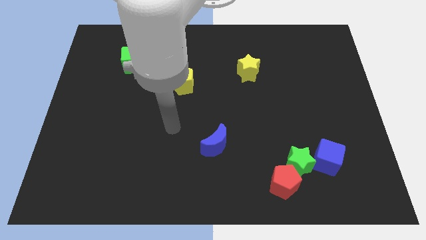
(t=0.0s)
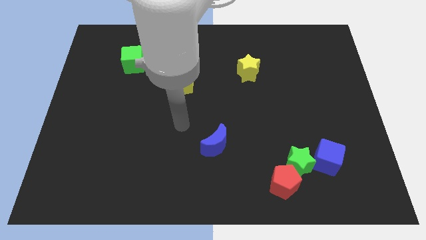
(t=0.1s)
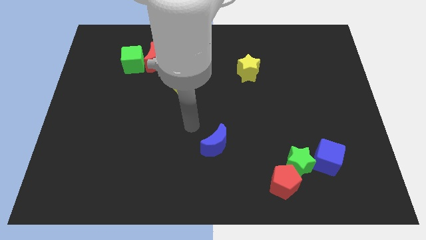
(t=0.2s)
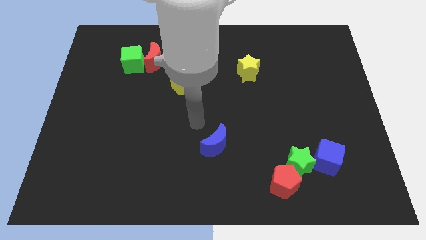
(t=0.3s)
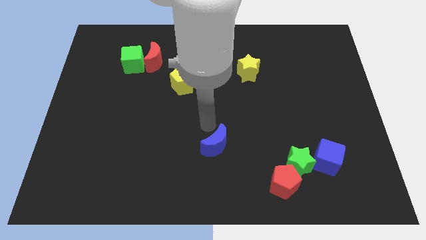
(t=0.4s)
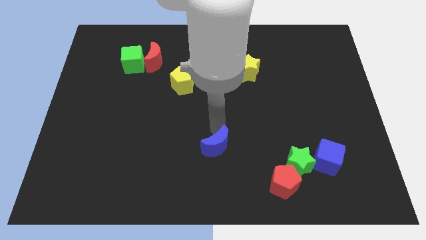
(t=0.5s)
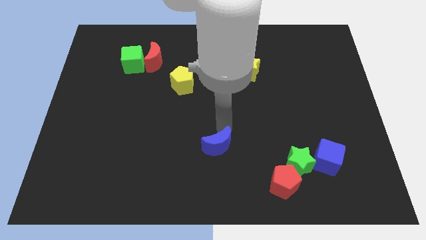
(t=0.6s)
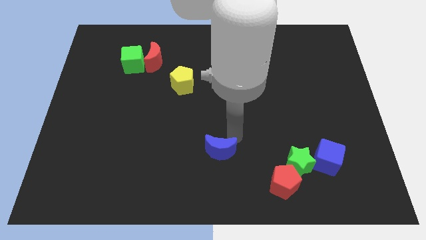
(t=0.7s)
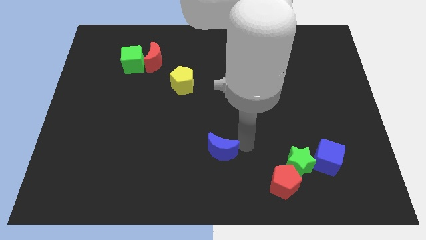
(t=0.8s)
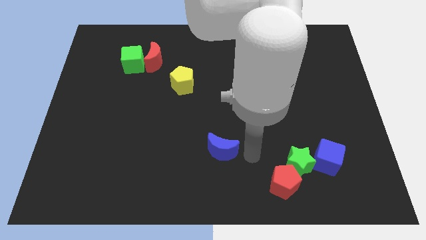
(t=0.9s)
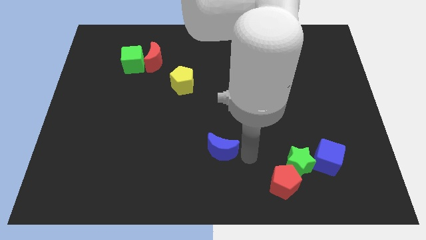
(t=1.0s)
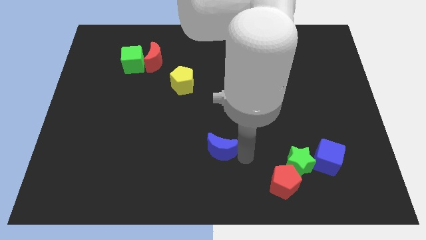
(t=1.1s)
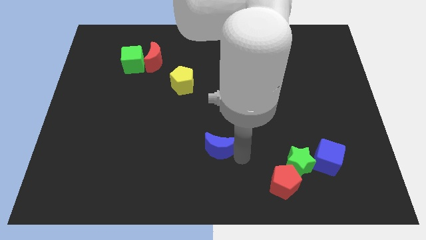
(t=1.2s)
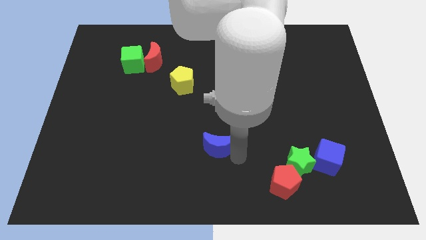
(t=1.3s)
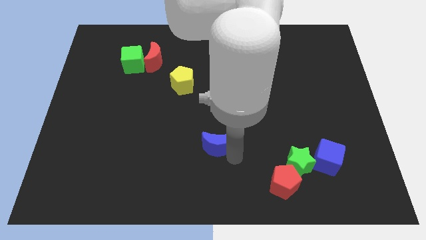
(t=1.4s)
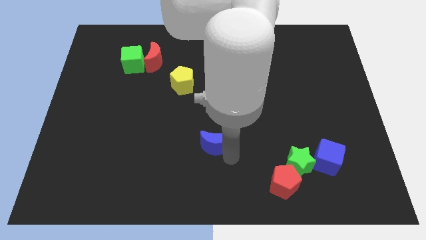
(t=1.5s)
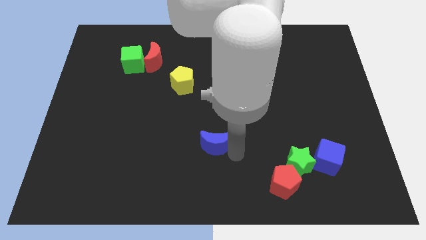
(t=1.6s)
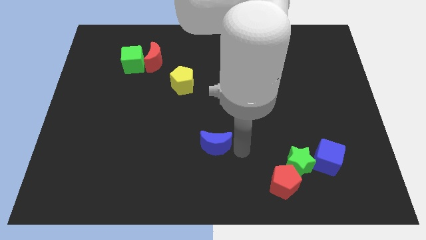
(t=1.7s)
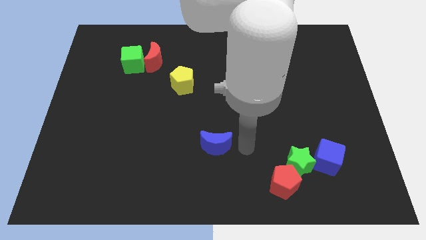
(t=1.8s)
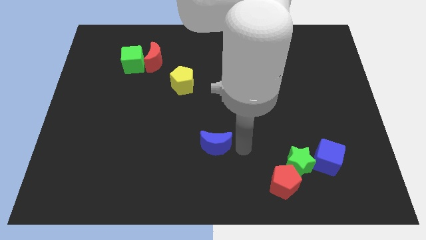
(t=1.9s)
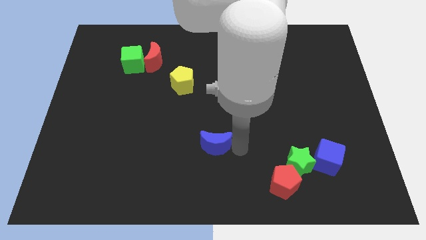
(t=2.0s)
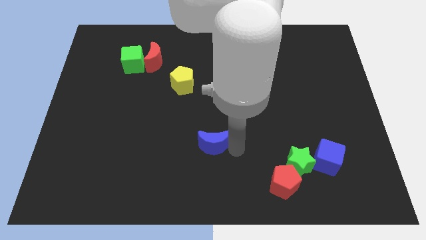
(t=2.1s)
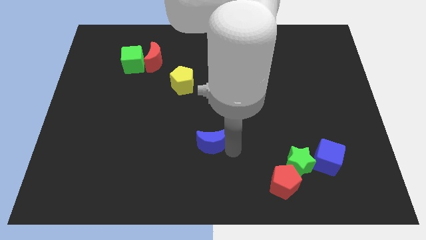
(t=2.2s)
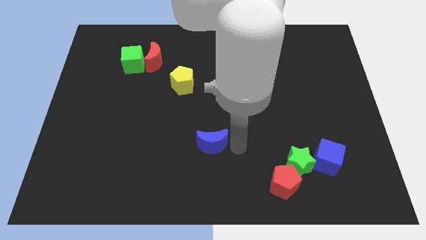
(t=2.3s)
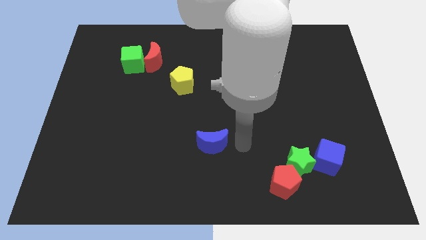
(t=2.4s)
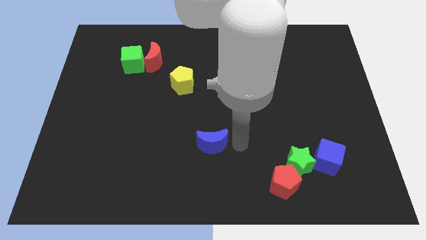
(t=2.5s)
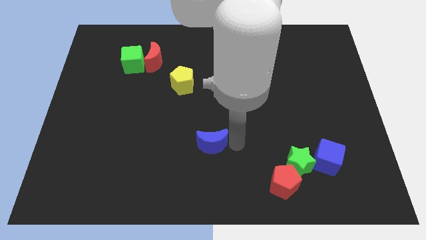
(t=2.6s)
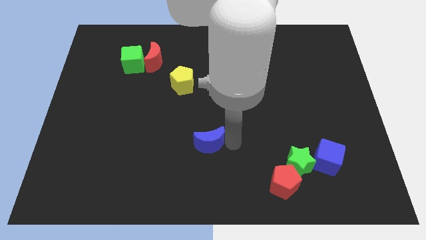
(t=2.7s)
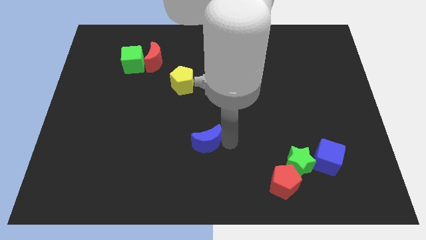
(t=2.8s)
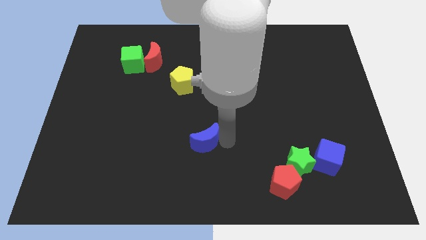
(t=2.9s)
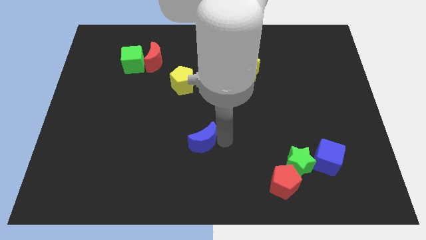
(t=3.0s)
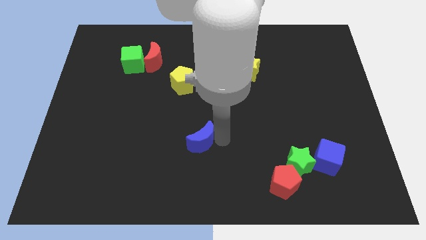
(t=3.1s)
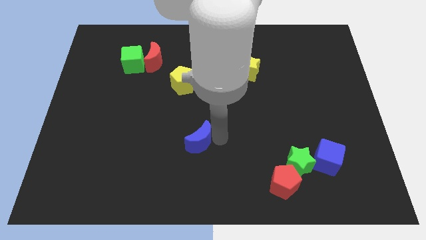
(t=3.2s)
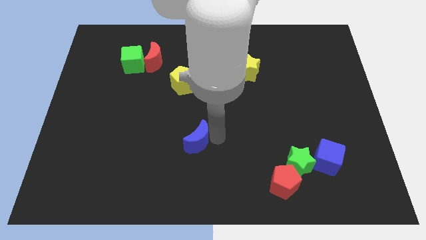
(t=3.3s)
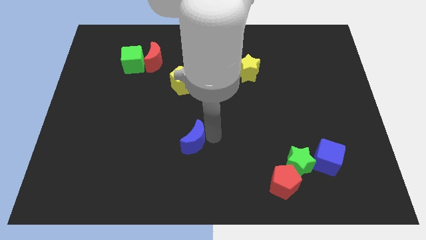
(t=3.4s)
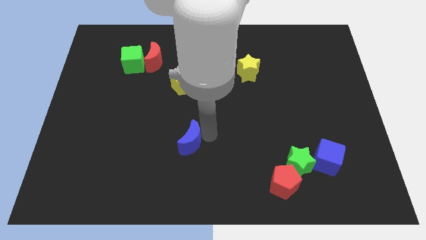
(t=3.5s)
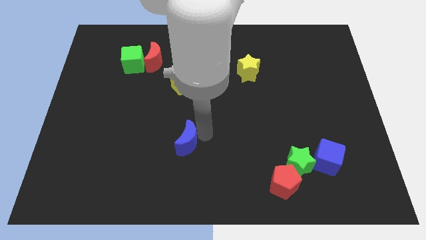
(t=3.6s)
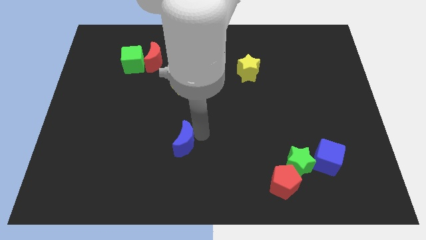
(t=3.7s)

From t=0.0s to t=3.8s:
push the blue moon slightly left

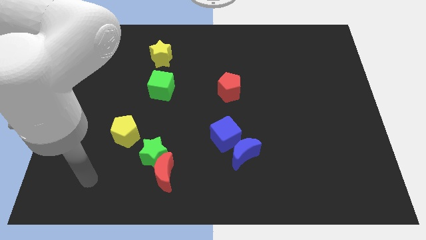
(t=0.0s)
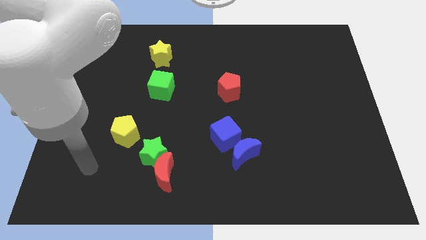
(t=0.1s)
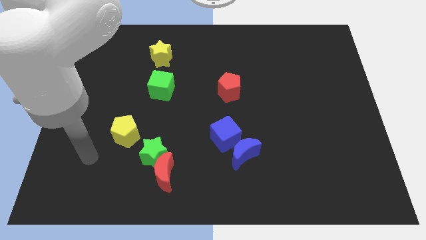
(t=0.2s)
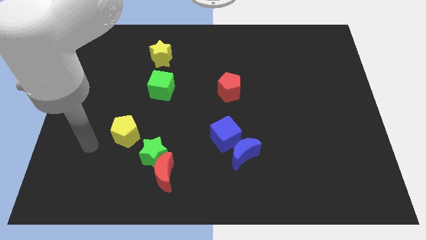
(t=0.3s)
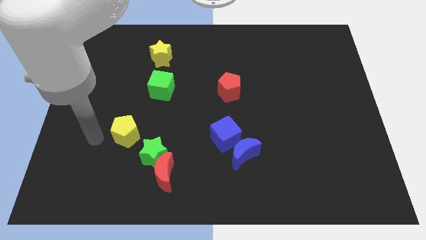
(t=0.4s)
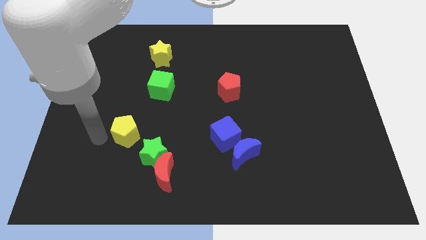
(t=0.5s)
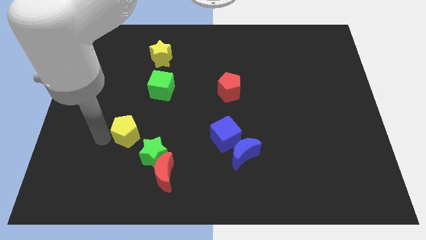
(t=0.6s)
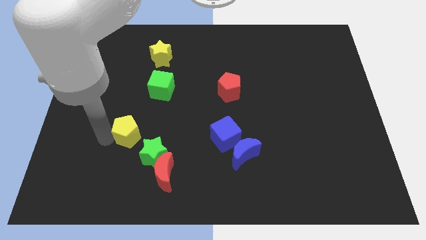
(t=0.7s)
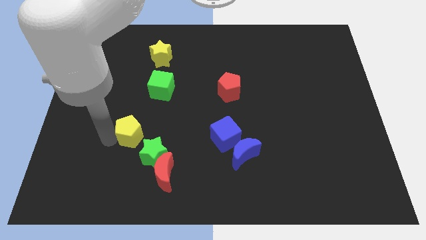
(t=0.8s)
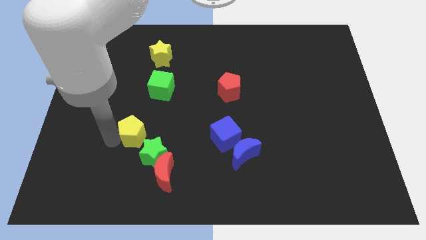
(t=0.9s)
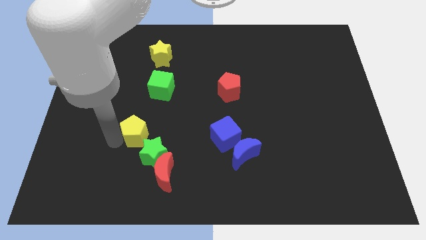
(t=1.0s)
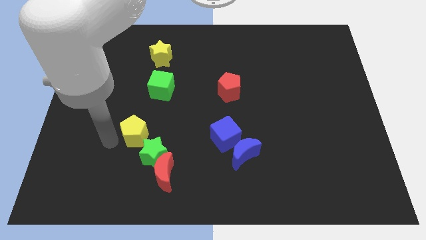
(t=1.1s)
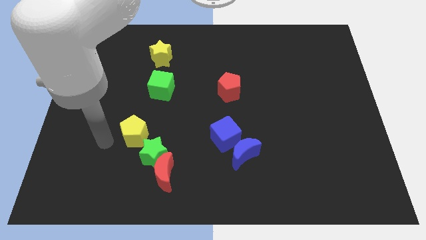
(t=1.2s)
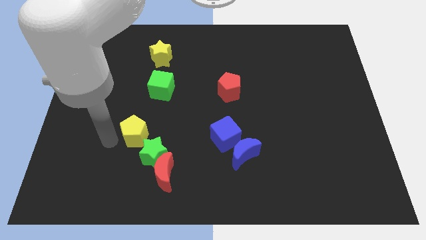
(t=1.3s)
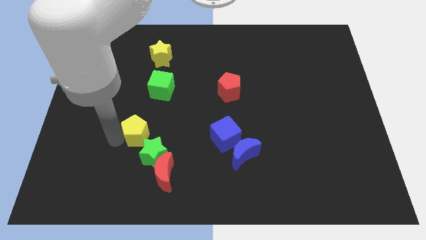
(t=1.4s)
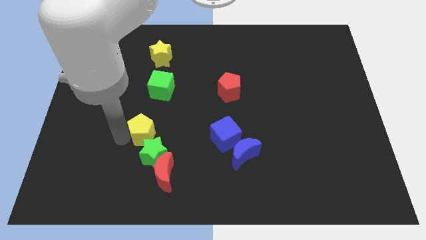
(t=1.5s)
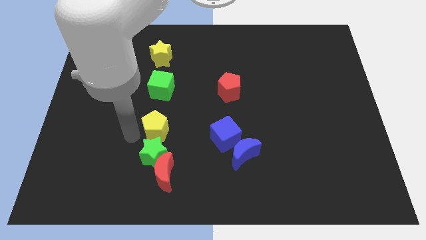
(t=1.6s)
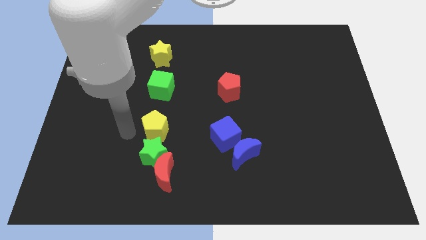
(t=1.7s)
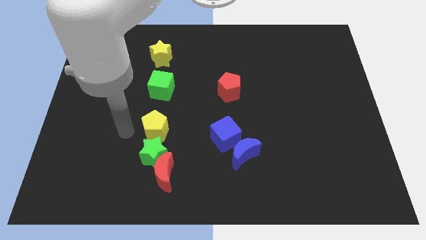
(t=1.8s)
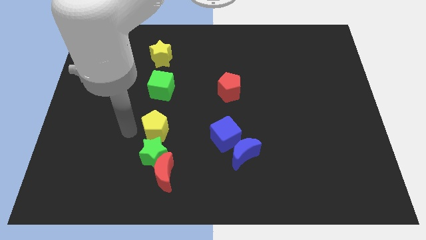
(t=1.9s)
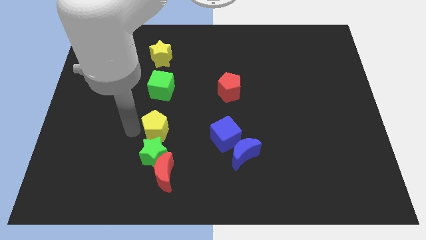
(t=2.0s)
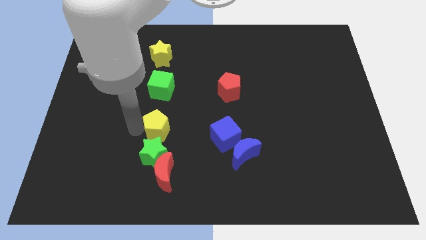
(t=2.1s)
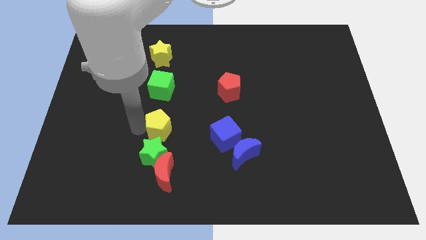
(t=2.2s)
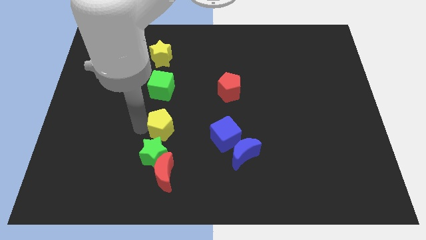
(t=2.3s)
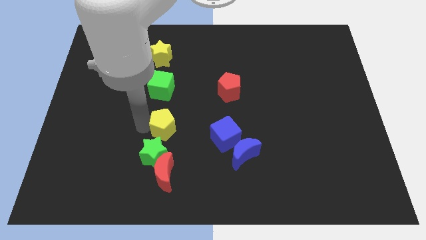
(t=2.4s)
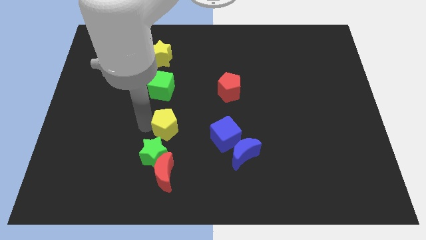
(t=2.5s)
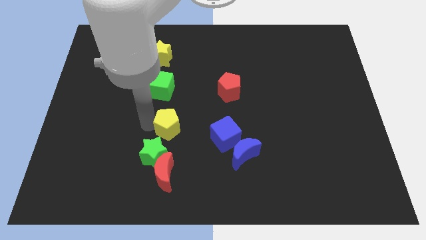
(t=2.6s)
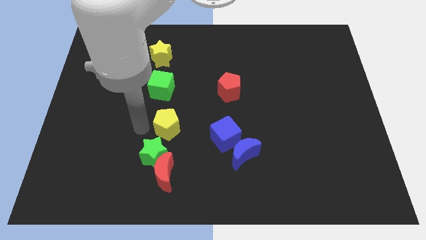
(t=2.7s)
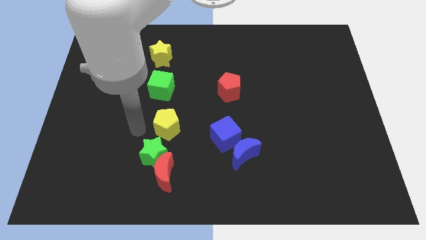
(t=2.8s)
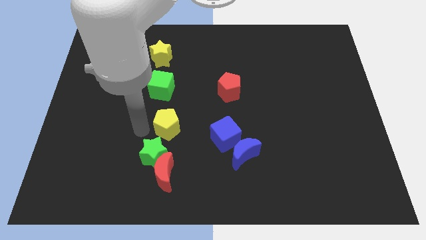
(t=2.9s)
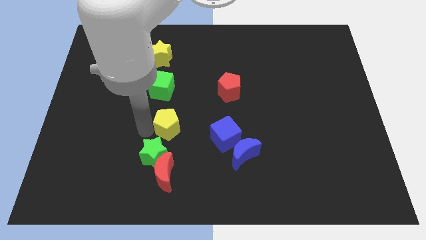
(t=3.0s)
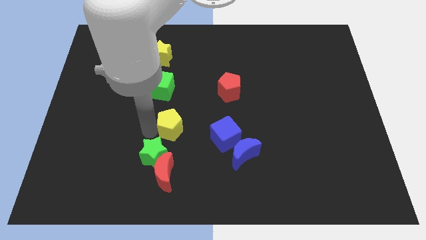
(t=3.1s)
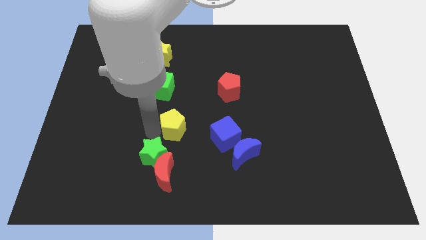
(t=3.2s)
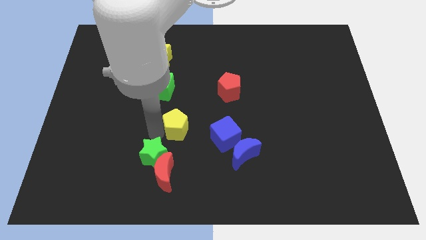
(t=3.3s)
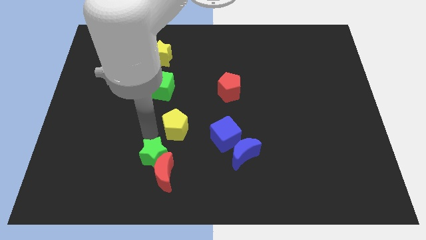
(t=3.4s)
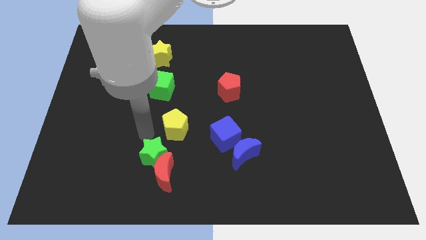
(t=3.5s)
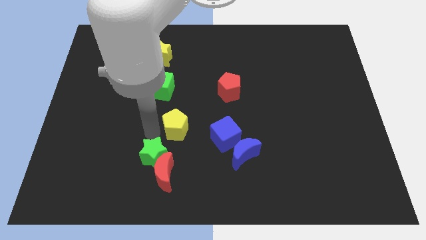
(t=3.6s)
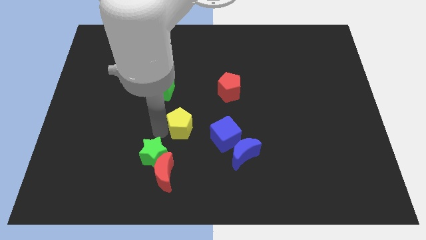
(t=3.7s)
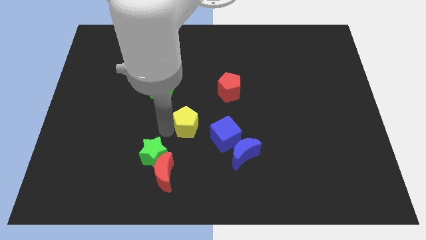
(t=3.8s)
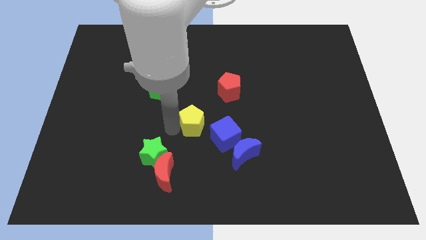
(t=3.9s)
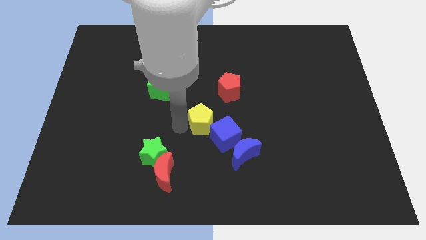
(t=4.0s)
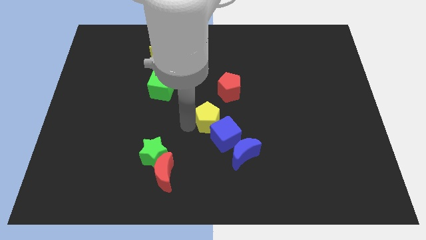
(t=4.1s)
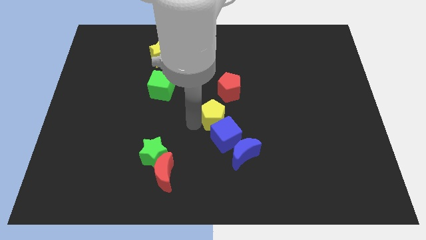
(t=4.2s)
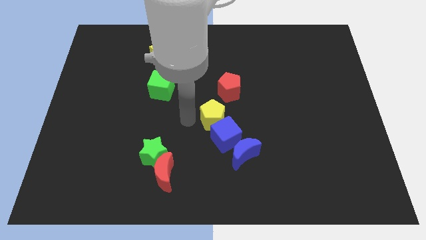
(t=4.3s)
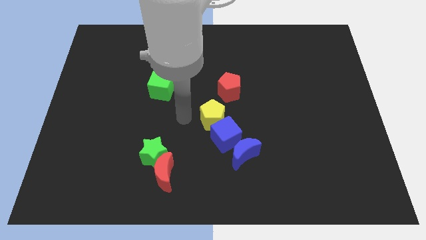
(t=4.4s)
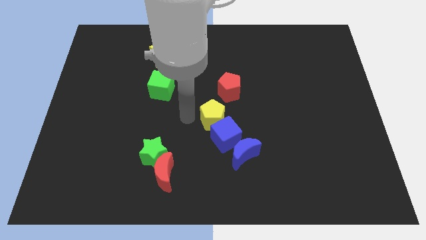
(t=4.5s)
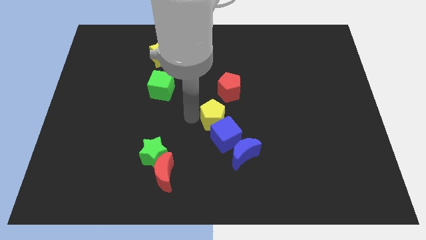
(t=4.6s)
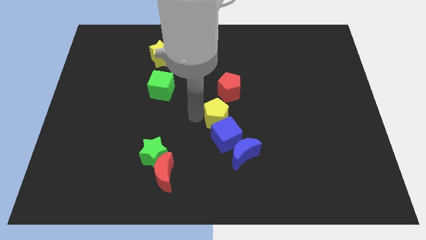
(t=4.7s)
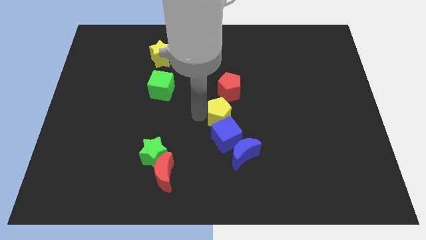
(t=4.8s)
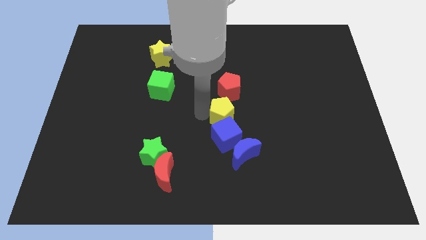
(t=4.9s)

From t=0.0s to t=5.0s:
move the yellow pentagon right
